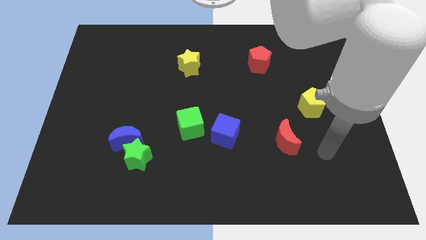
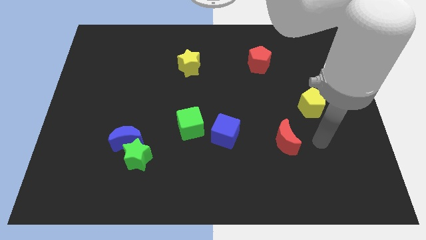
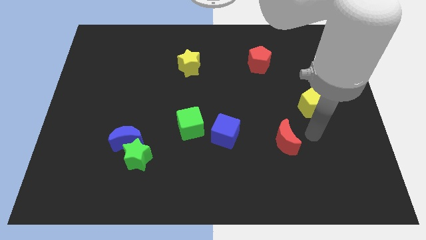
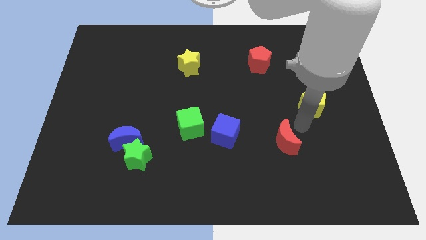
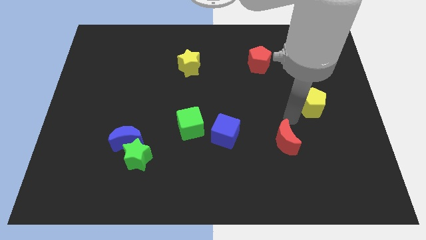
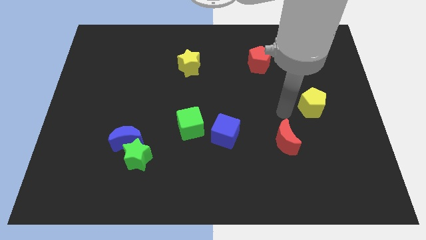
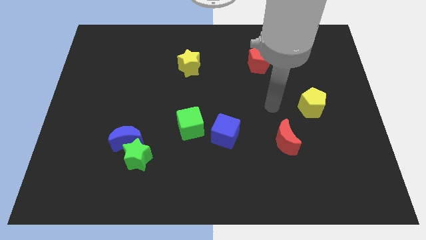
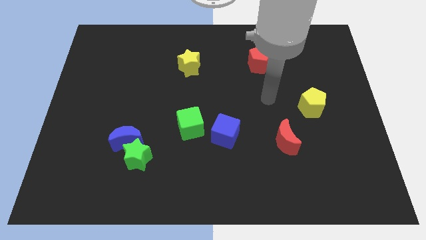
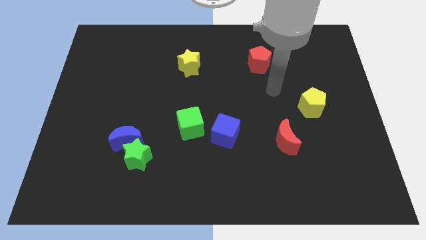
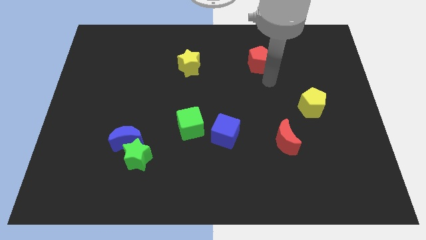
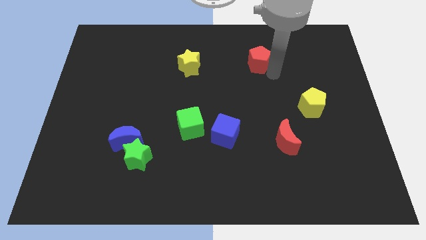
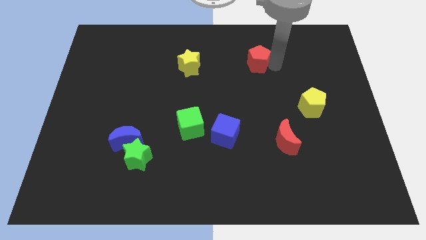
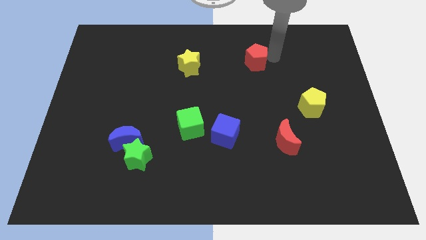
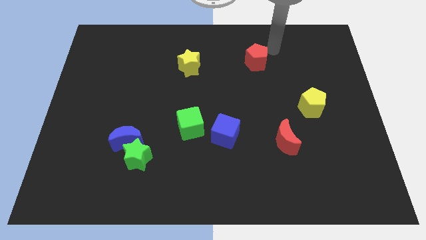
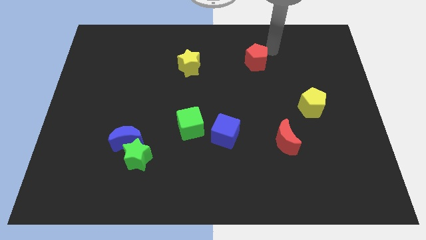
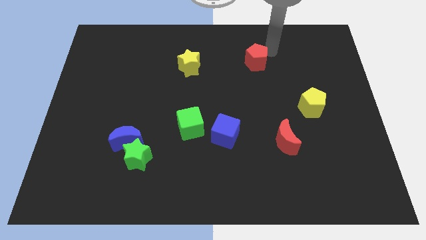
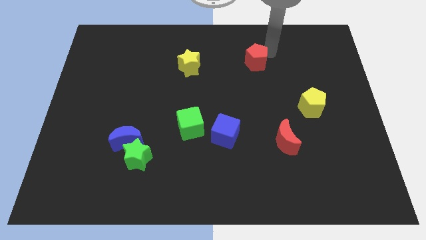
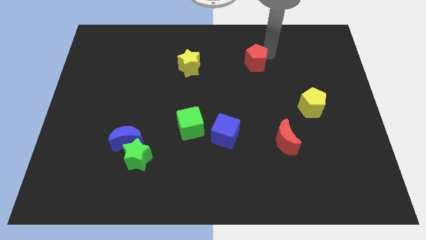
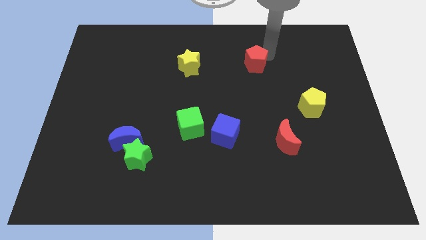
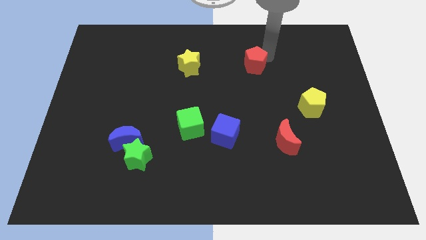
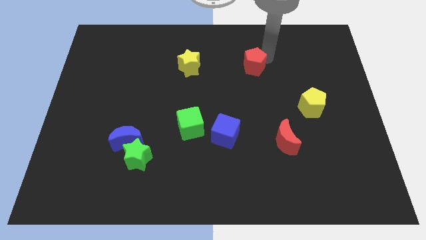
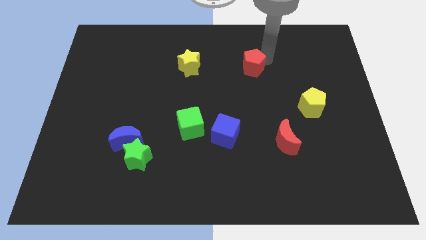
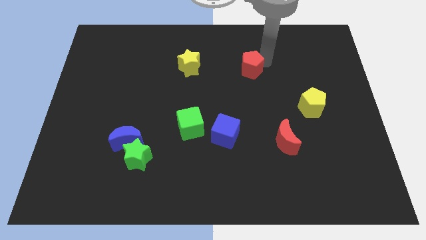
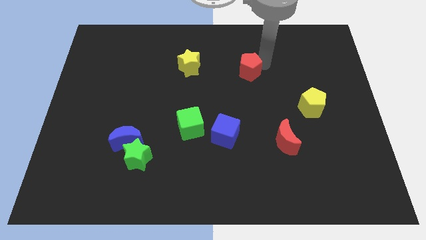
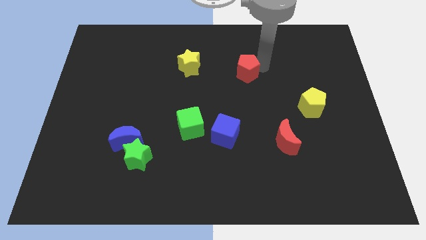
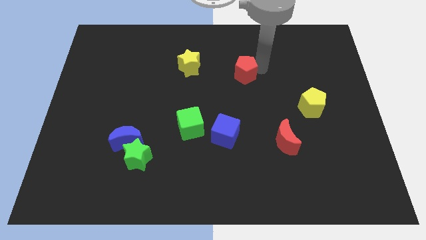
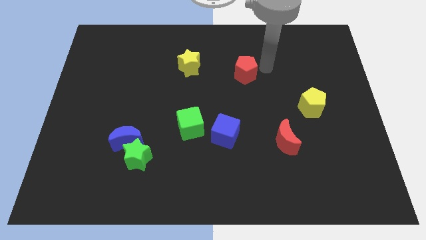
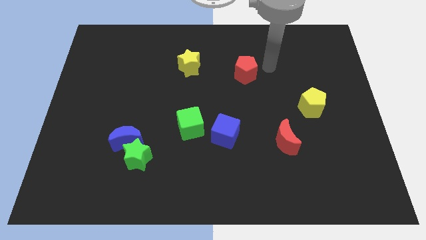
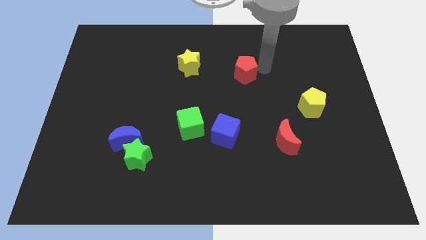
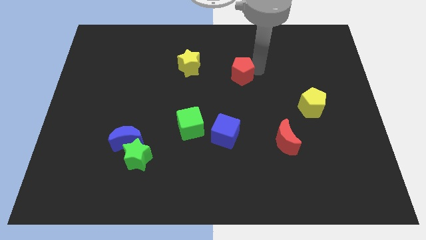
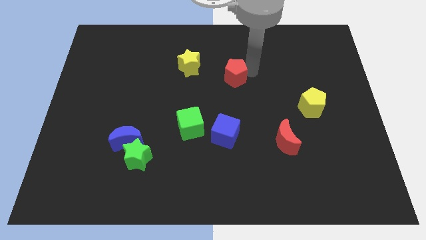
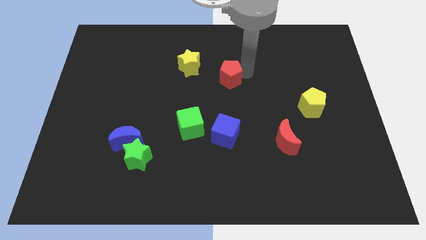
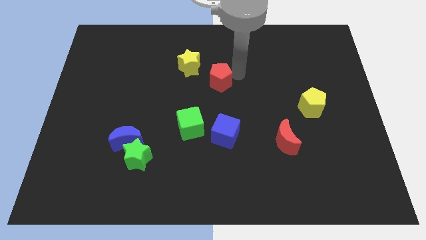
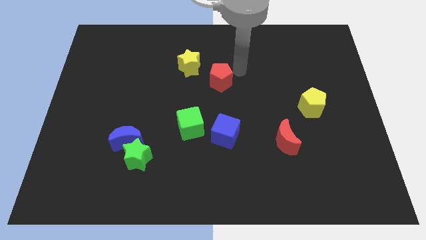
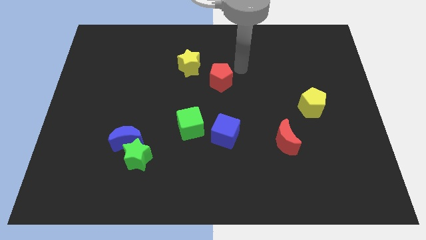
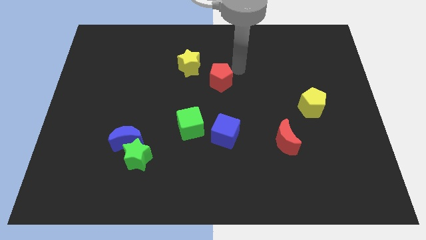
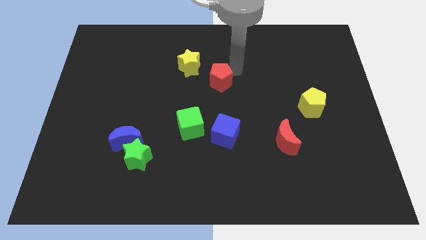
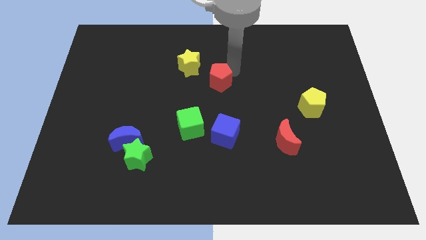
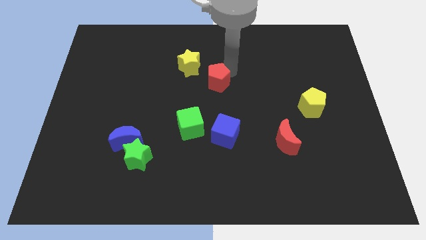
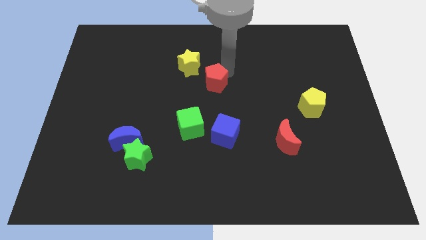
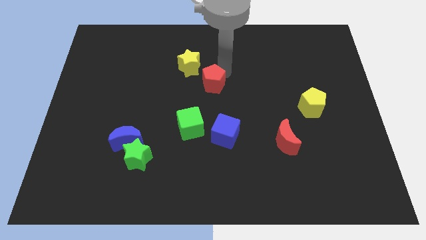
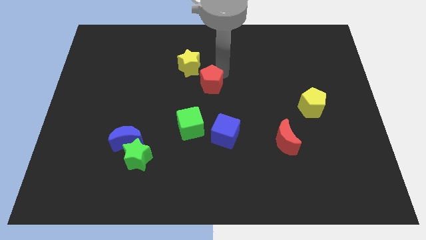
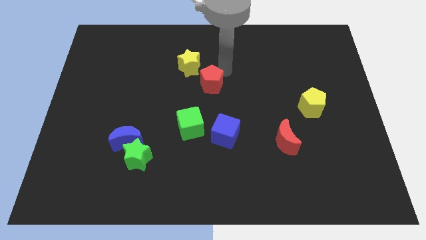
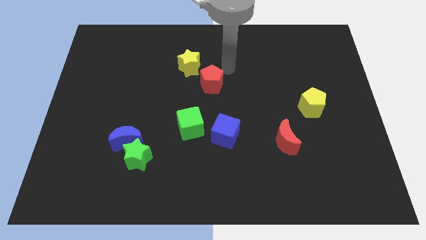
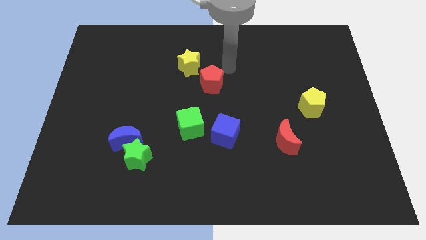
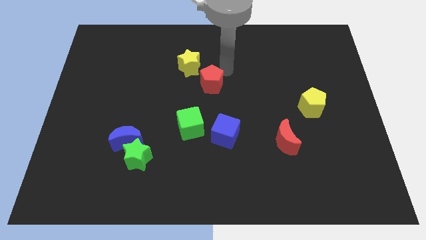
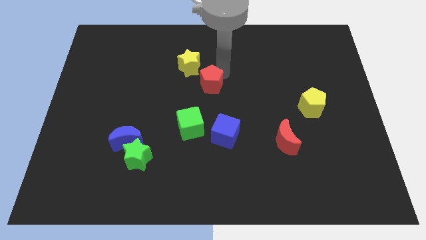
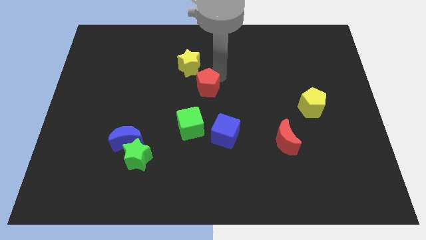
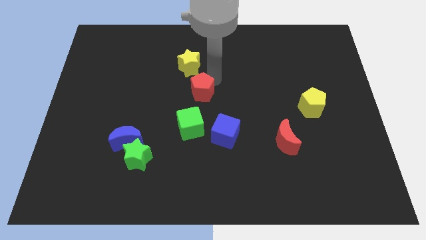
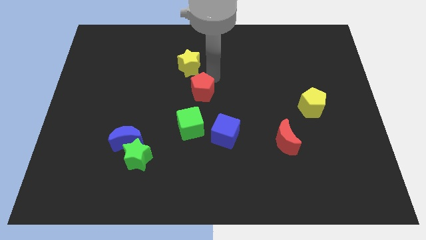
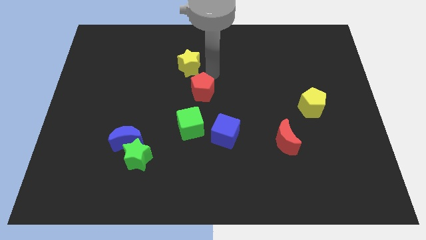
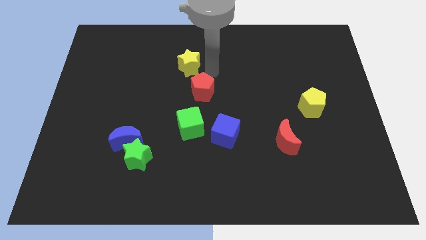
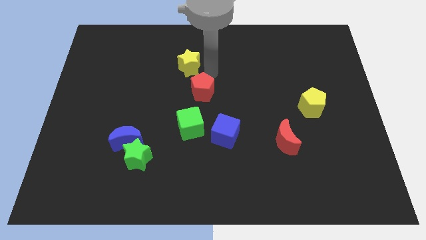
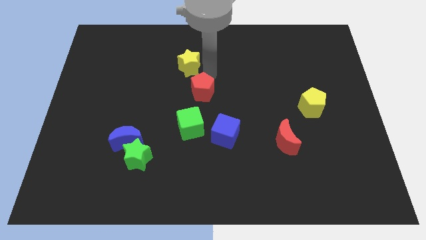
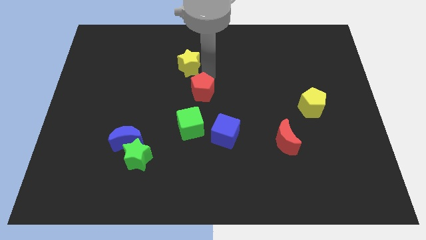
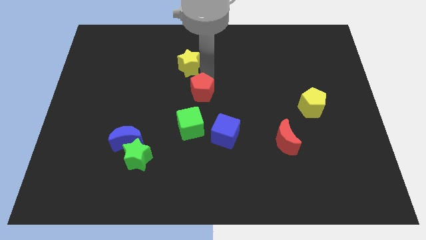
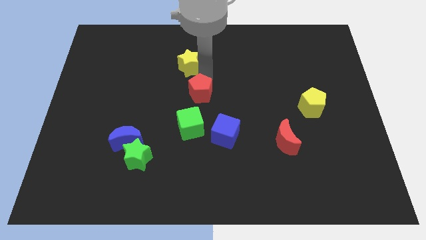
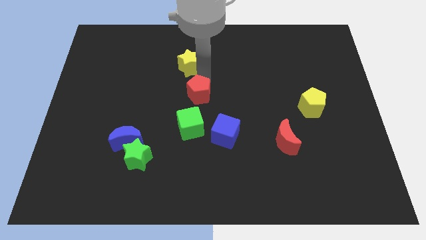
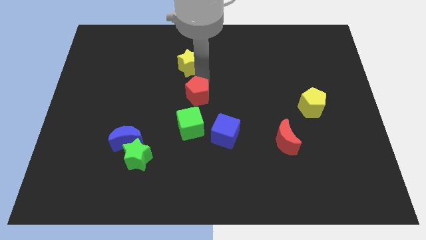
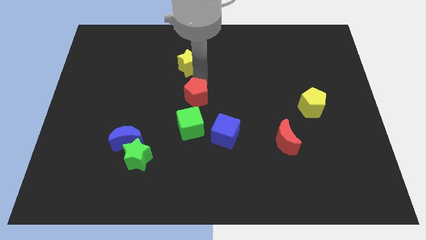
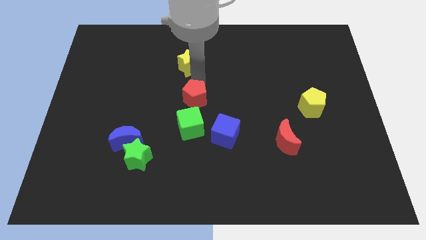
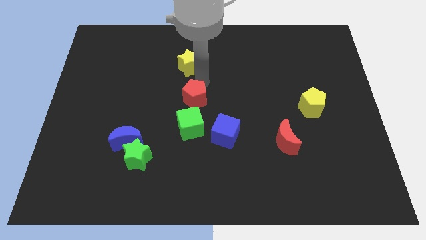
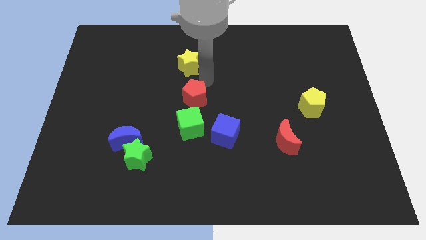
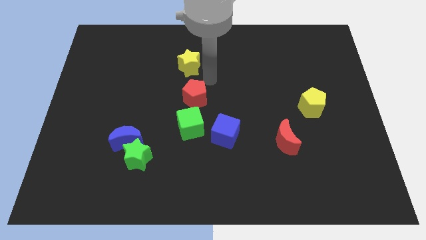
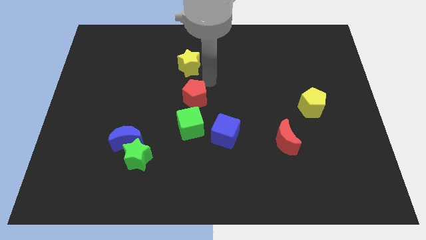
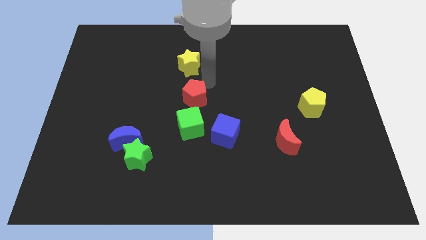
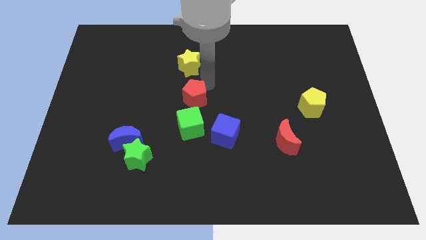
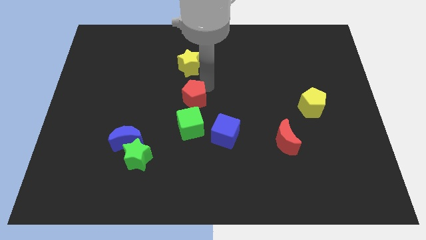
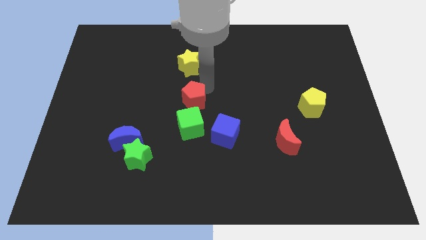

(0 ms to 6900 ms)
push the red pentagon downwards and then left

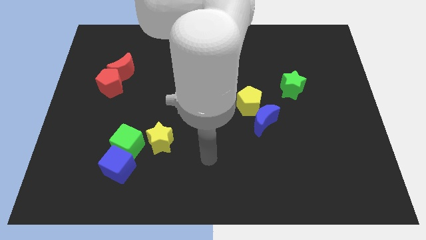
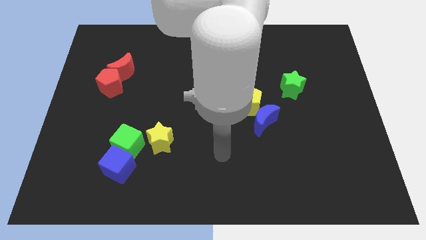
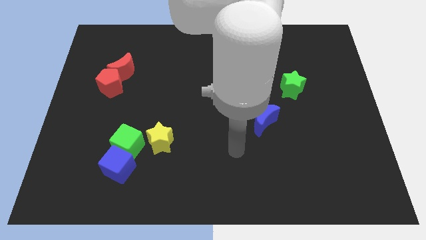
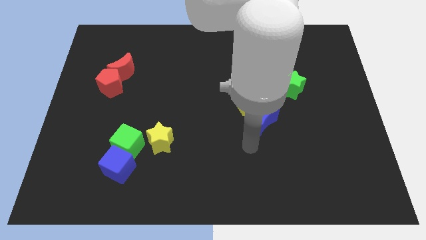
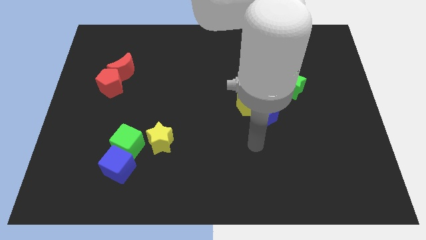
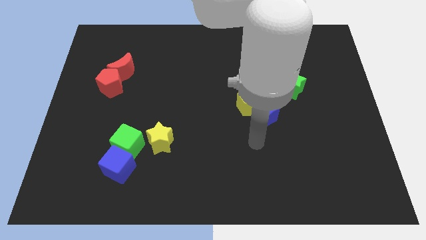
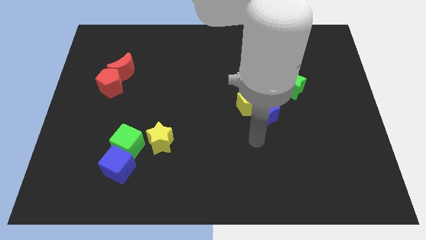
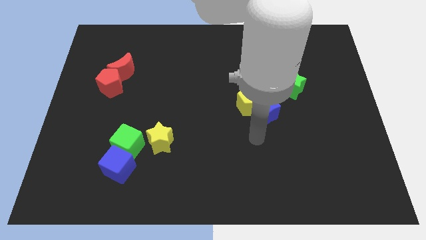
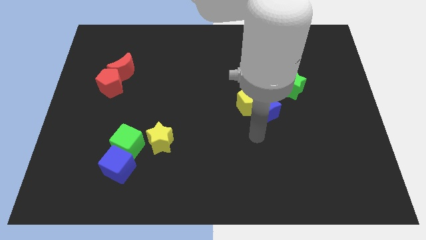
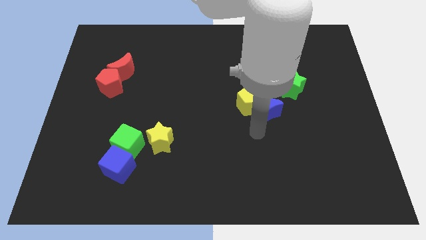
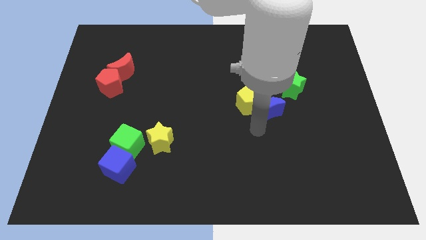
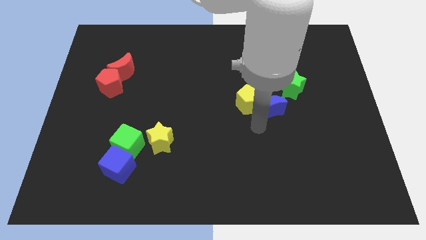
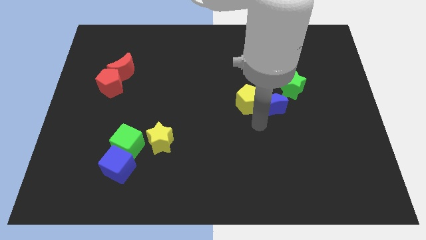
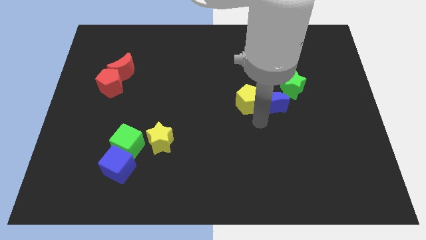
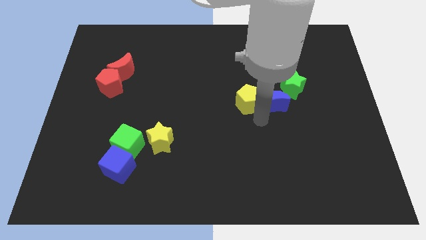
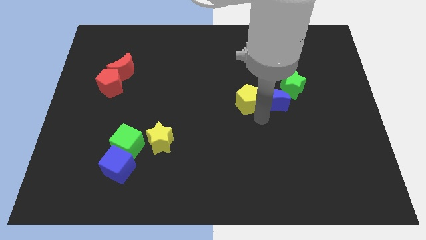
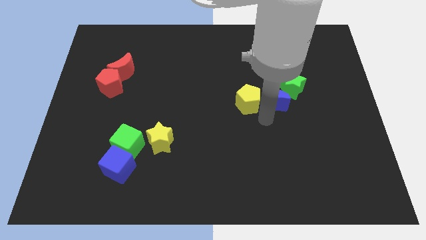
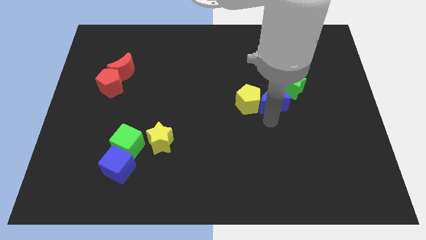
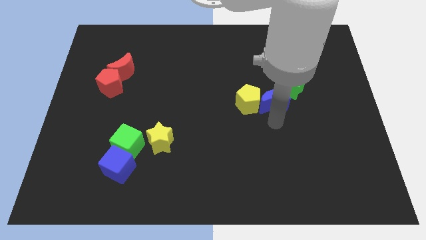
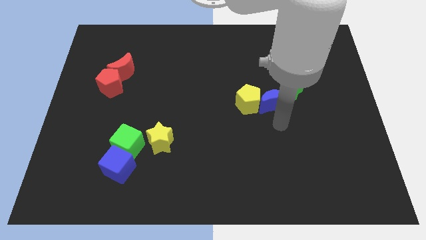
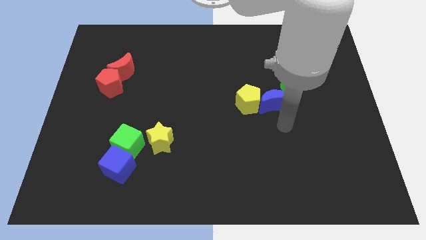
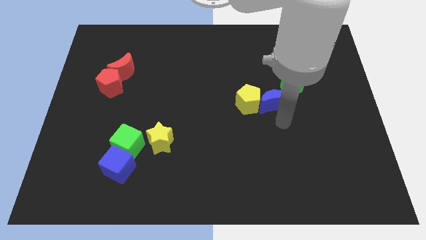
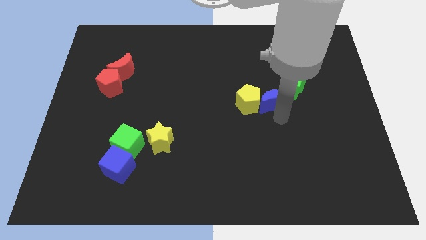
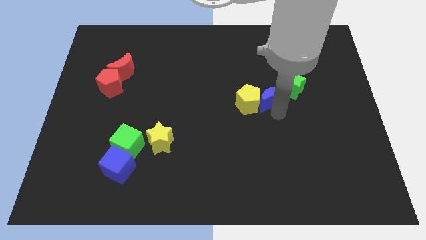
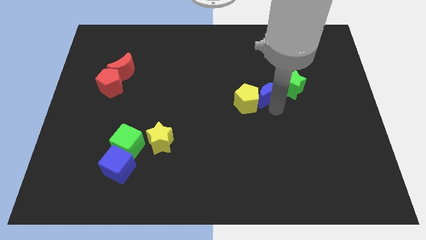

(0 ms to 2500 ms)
slightly slide the blue moon up
